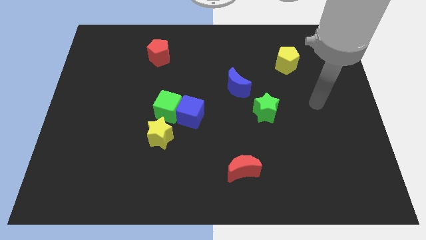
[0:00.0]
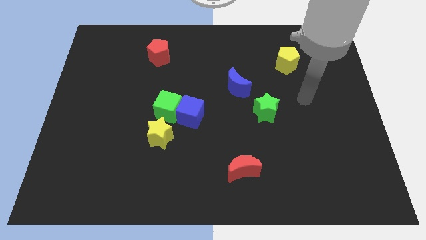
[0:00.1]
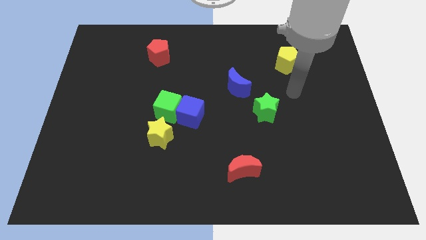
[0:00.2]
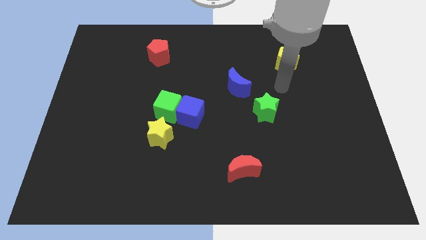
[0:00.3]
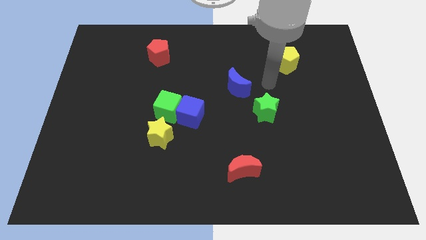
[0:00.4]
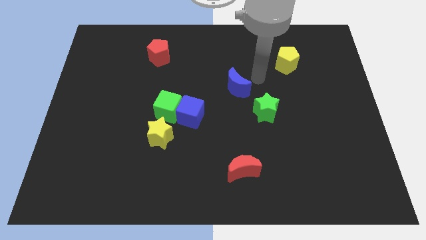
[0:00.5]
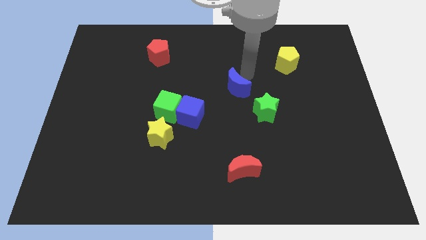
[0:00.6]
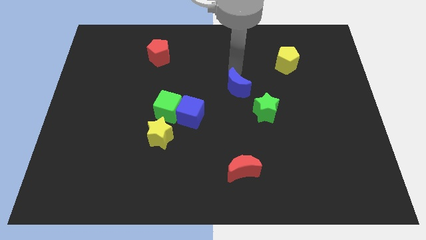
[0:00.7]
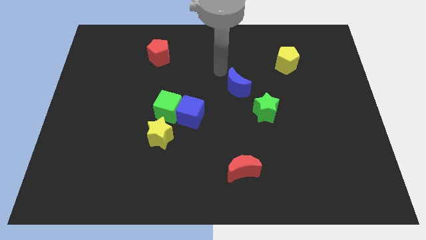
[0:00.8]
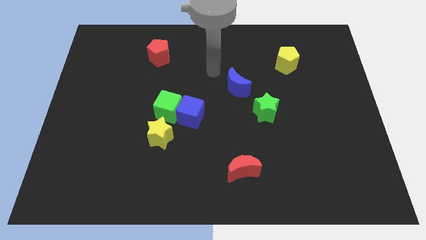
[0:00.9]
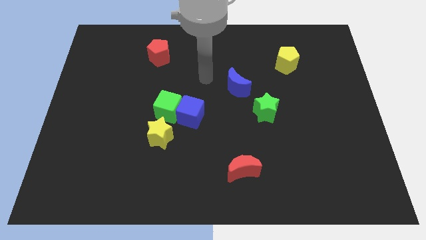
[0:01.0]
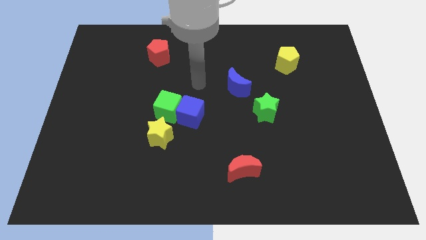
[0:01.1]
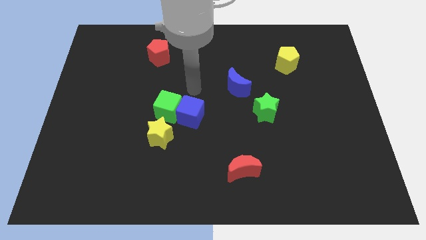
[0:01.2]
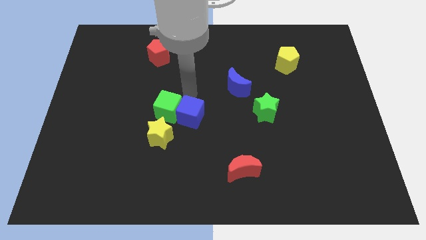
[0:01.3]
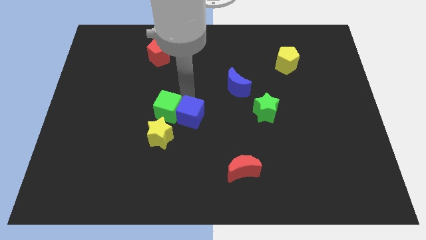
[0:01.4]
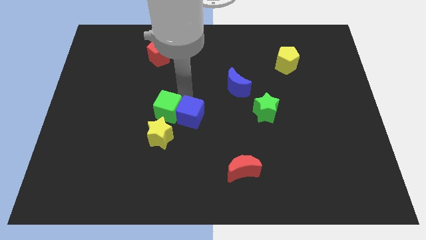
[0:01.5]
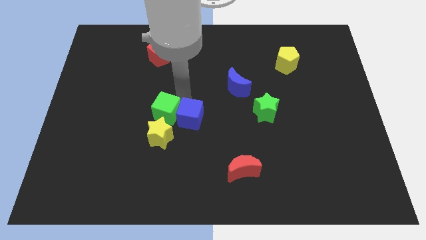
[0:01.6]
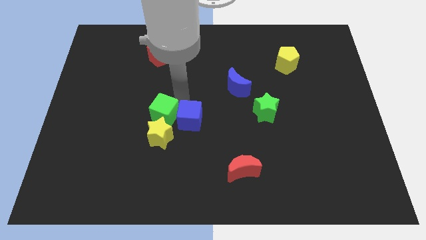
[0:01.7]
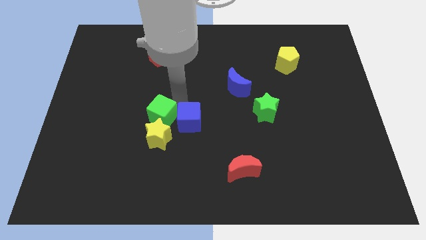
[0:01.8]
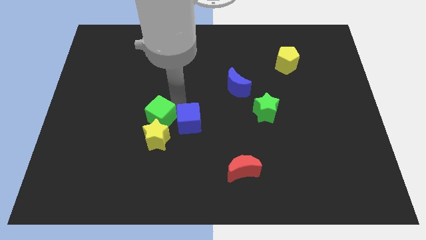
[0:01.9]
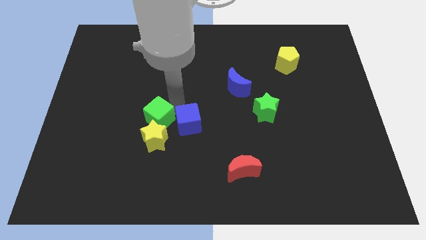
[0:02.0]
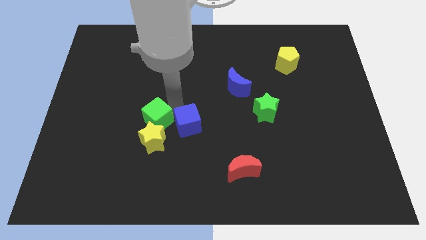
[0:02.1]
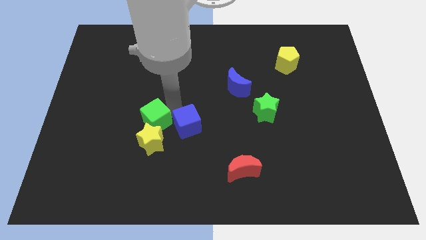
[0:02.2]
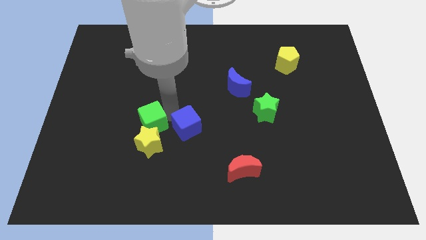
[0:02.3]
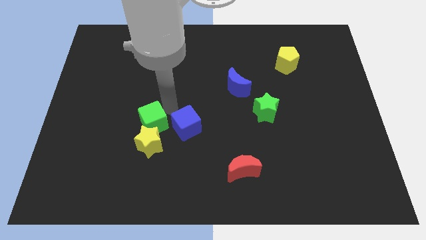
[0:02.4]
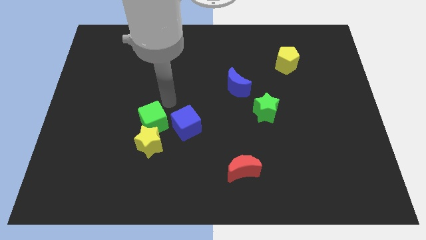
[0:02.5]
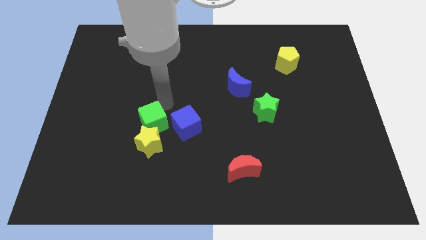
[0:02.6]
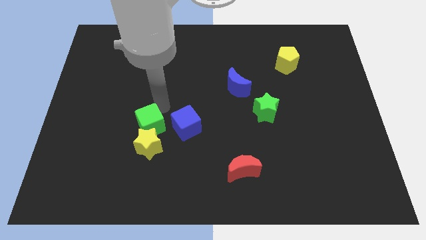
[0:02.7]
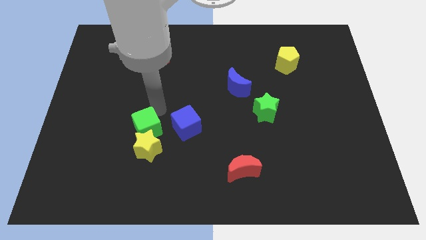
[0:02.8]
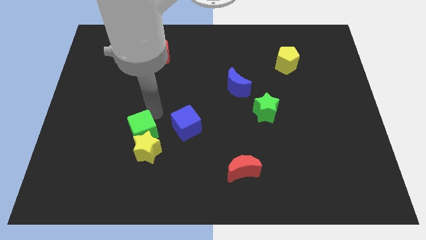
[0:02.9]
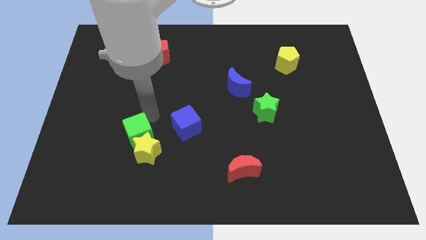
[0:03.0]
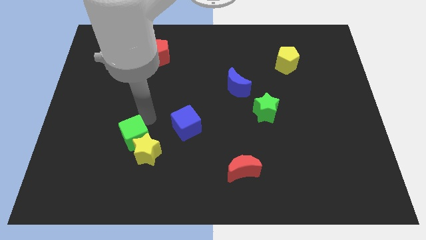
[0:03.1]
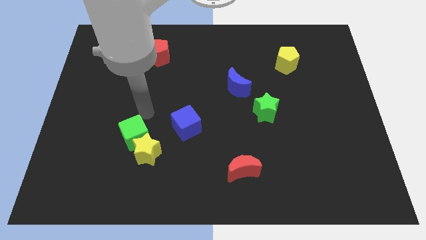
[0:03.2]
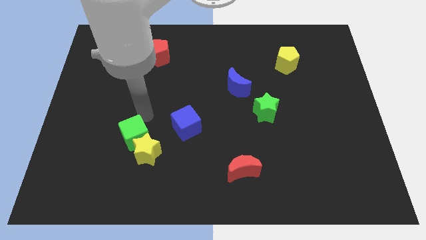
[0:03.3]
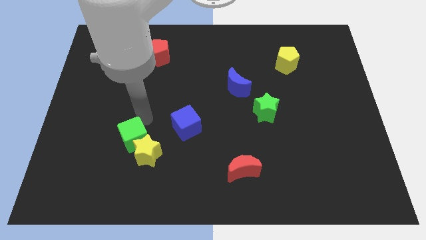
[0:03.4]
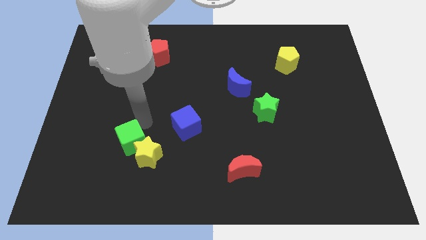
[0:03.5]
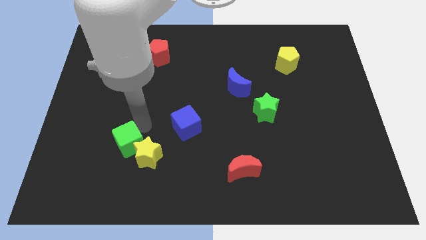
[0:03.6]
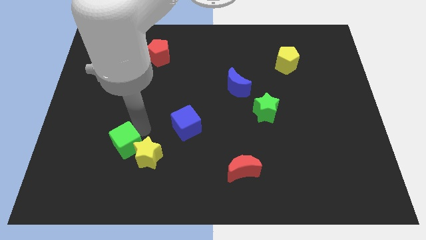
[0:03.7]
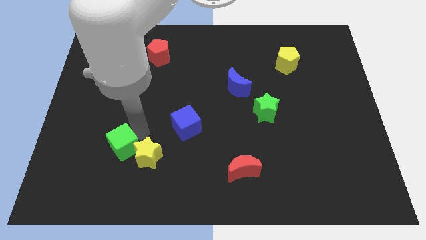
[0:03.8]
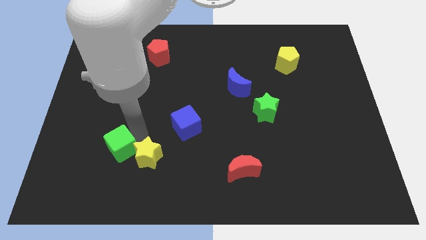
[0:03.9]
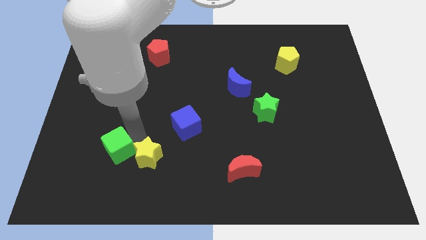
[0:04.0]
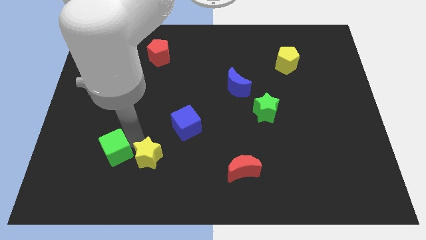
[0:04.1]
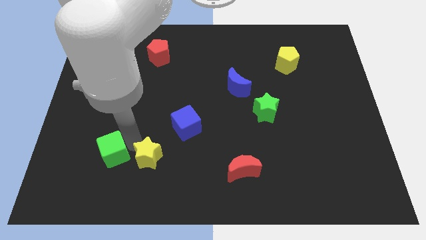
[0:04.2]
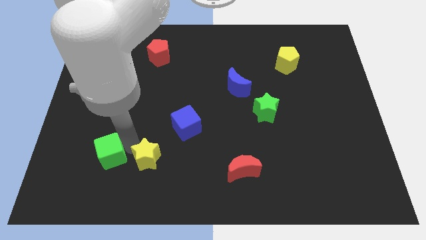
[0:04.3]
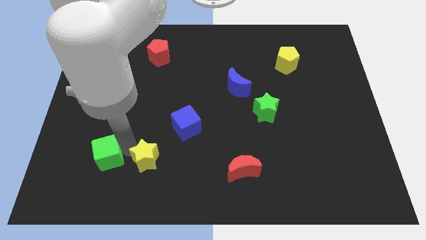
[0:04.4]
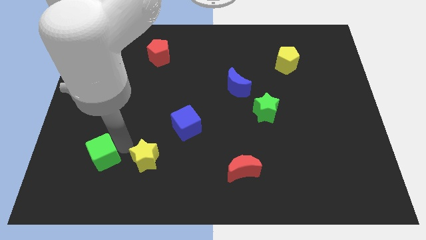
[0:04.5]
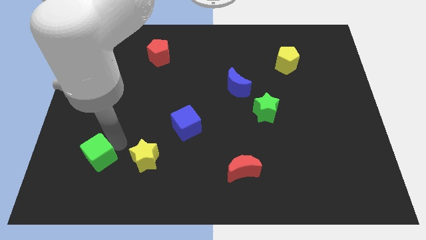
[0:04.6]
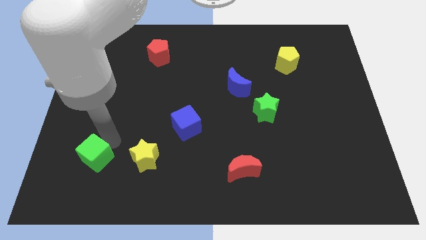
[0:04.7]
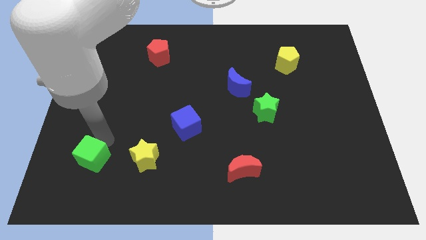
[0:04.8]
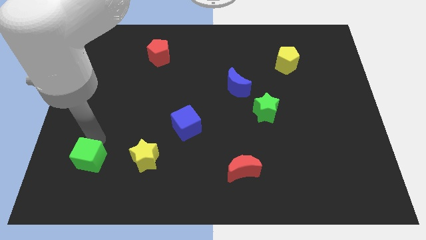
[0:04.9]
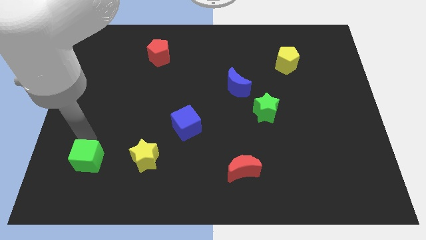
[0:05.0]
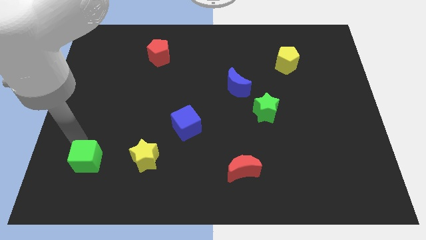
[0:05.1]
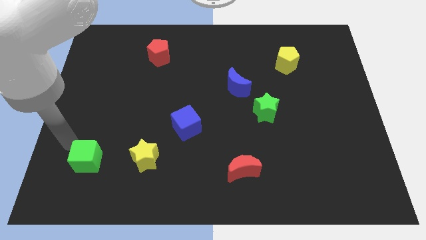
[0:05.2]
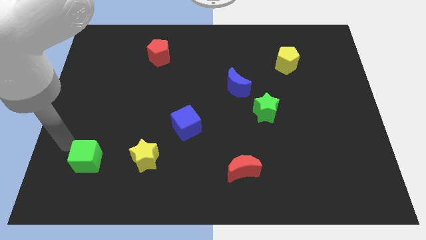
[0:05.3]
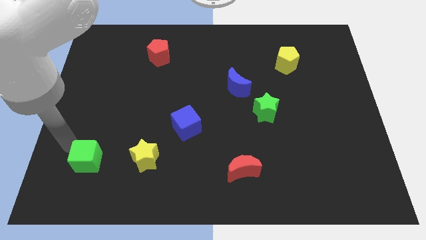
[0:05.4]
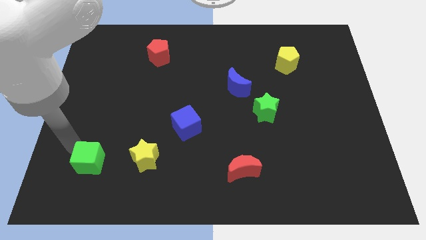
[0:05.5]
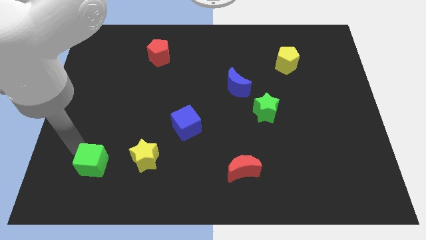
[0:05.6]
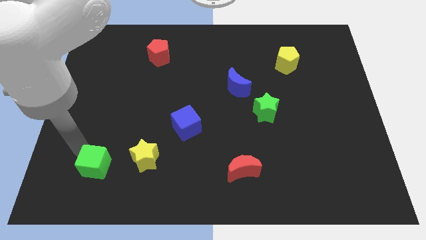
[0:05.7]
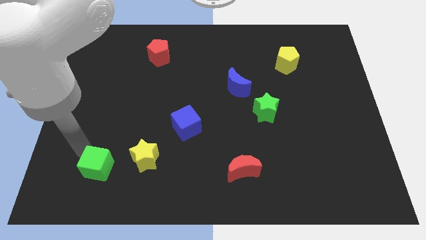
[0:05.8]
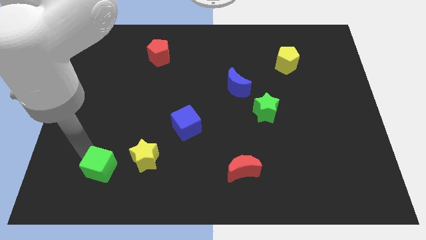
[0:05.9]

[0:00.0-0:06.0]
slide the green cube diagonally down and to the left of the yellow star

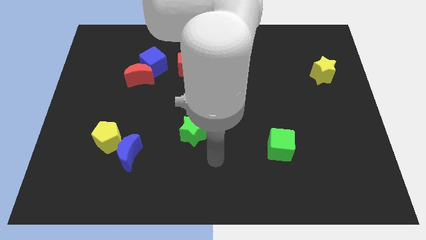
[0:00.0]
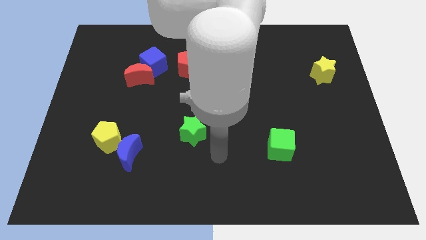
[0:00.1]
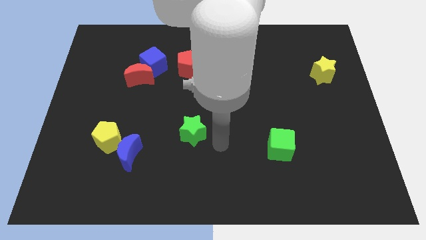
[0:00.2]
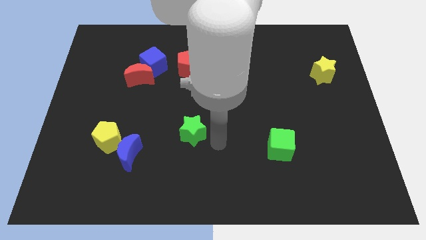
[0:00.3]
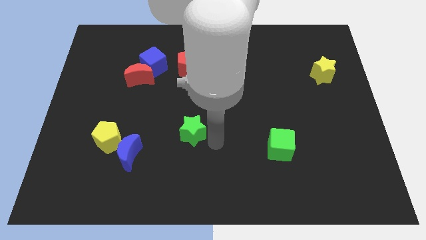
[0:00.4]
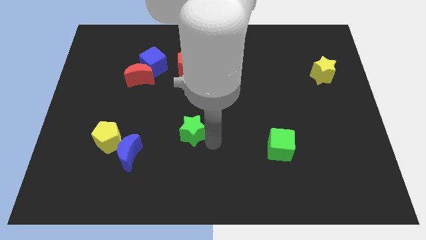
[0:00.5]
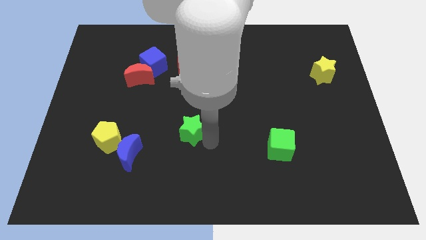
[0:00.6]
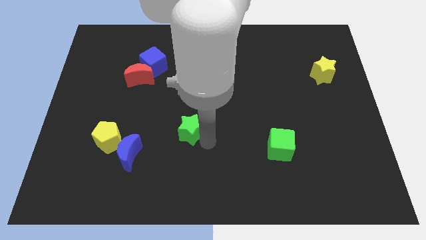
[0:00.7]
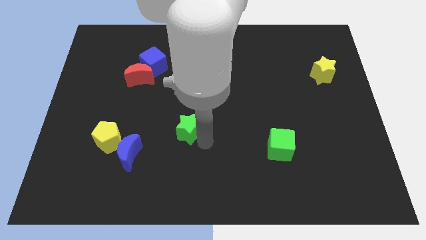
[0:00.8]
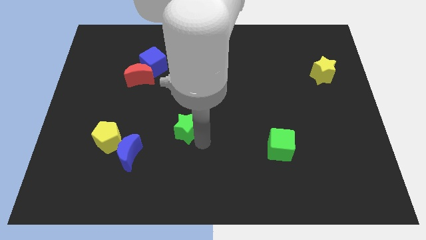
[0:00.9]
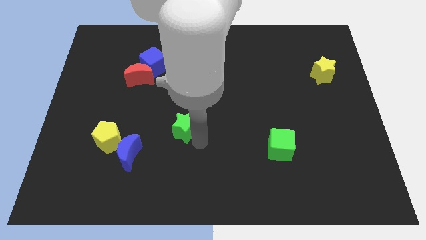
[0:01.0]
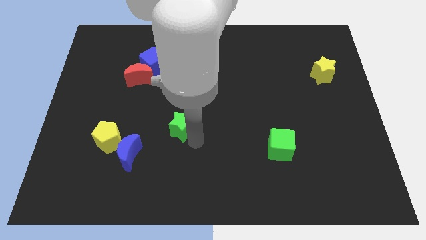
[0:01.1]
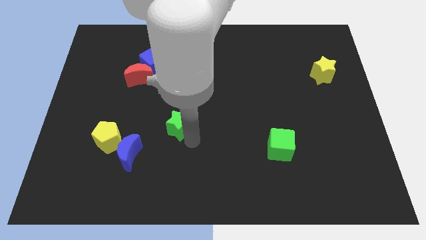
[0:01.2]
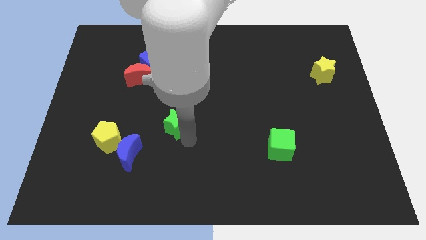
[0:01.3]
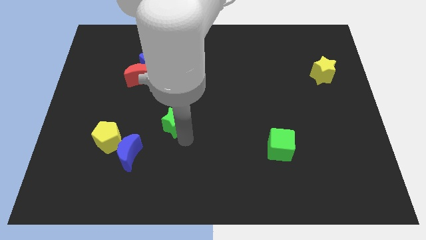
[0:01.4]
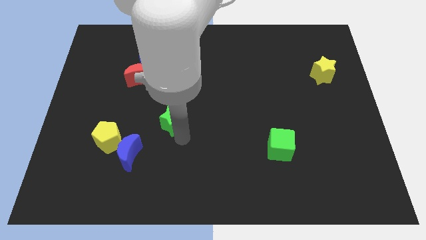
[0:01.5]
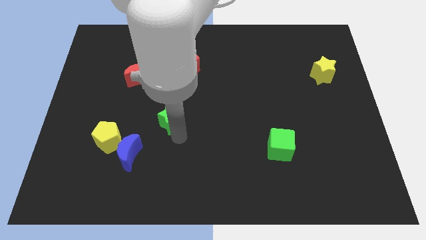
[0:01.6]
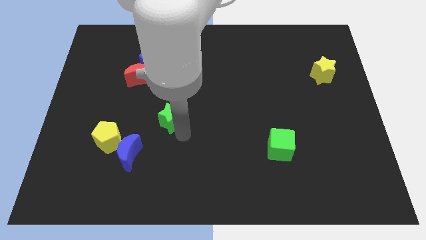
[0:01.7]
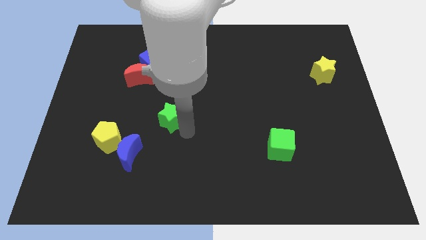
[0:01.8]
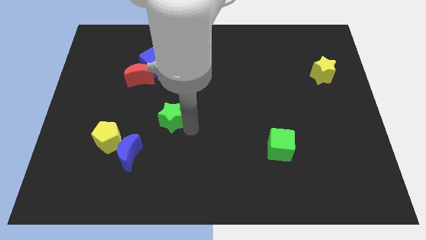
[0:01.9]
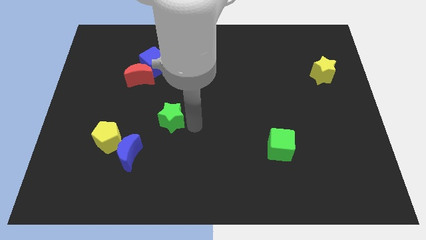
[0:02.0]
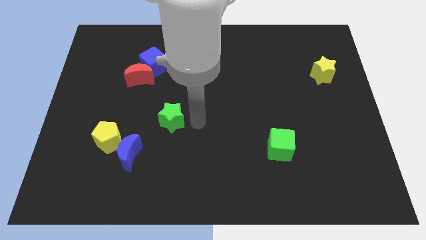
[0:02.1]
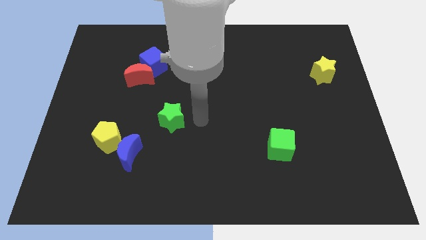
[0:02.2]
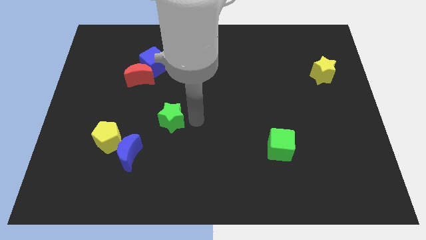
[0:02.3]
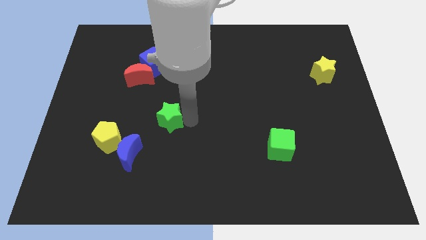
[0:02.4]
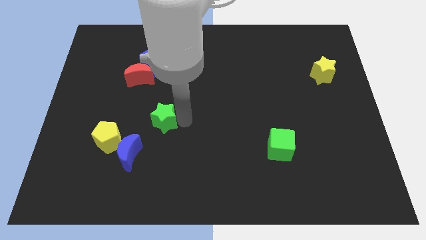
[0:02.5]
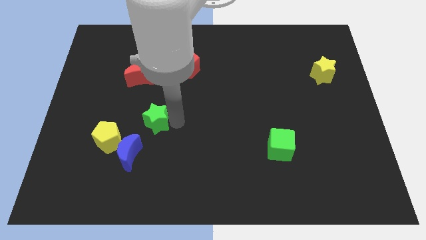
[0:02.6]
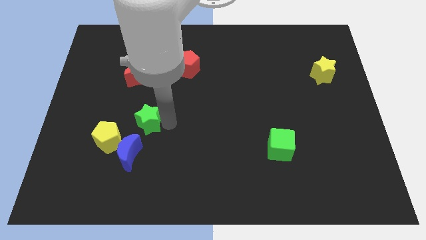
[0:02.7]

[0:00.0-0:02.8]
slide the green star to the top of the blue moon
